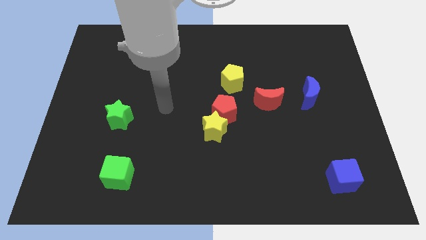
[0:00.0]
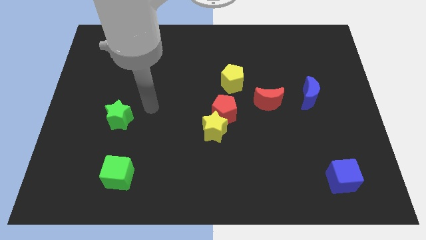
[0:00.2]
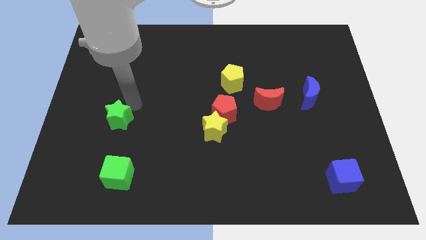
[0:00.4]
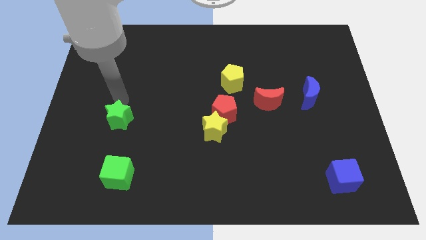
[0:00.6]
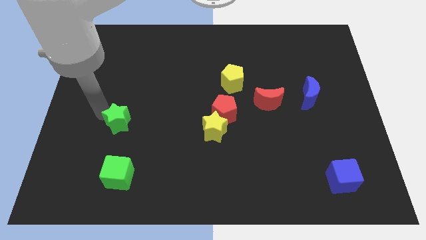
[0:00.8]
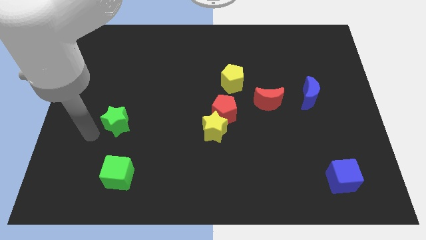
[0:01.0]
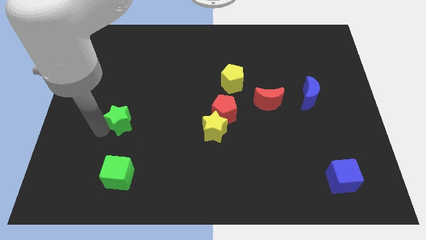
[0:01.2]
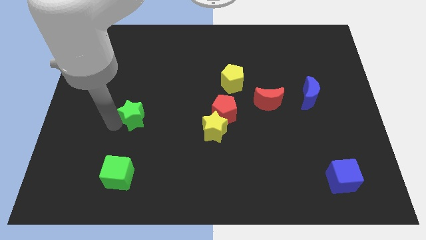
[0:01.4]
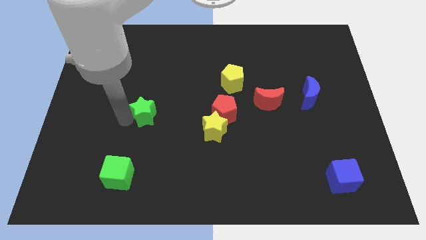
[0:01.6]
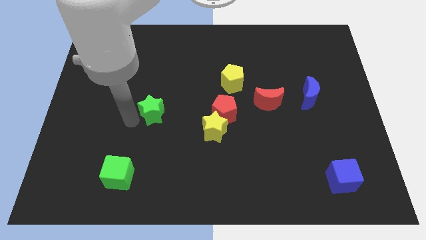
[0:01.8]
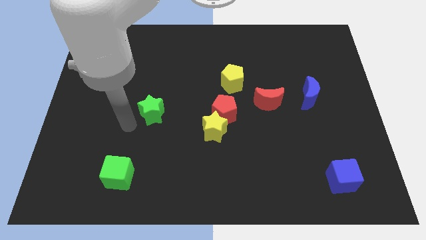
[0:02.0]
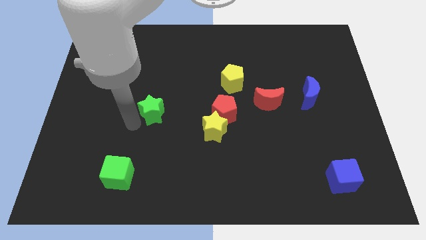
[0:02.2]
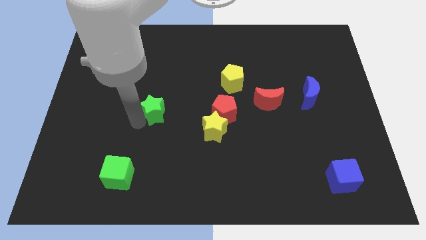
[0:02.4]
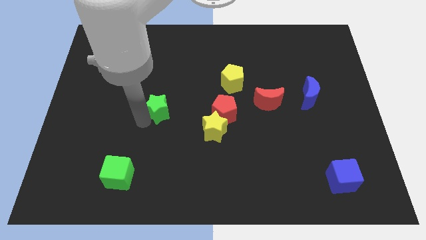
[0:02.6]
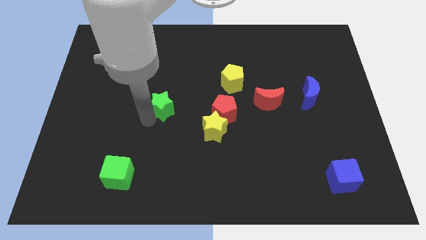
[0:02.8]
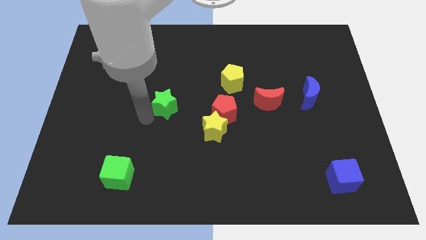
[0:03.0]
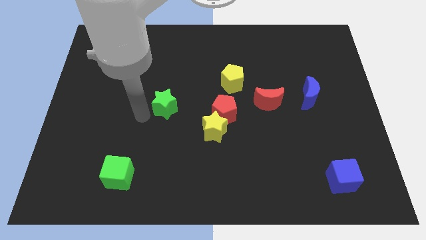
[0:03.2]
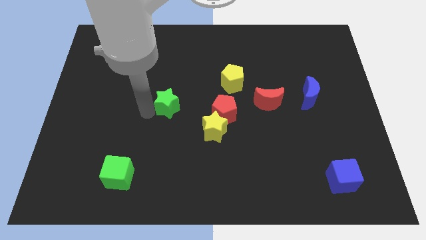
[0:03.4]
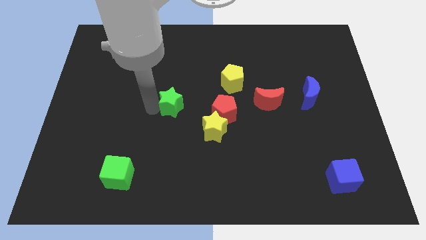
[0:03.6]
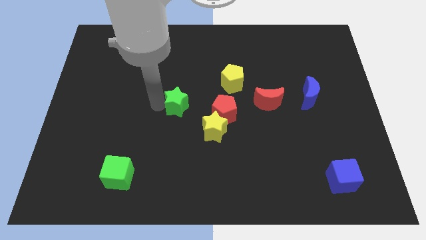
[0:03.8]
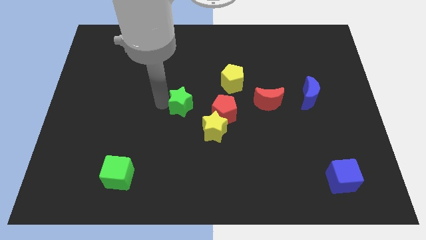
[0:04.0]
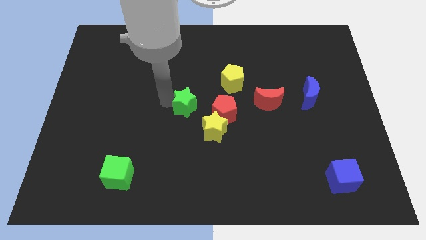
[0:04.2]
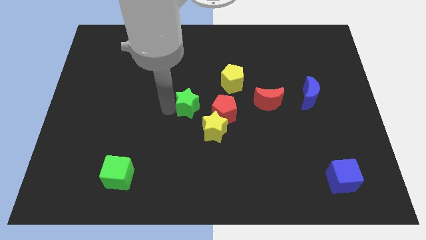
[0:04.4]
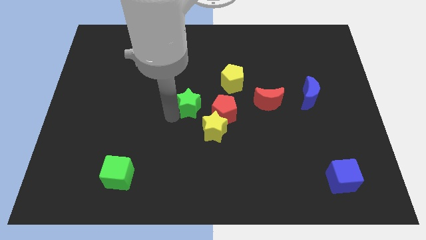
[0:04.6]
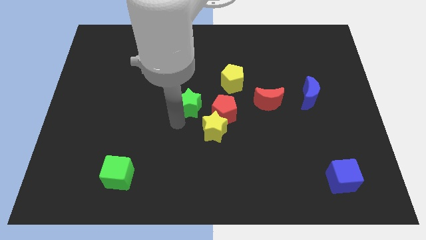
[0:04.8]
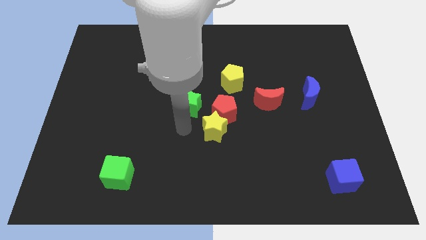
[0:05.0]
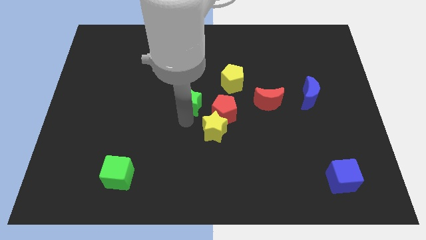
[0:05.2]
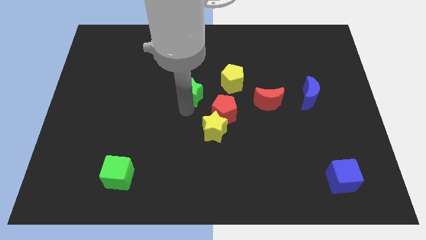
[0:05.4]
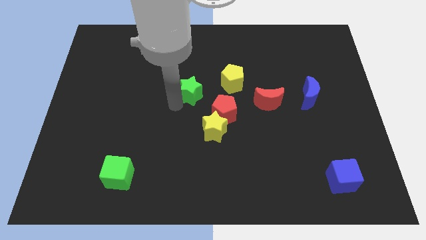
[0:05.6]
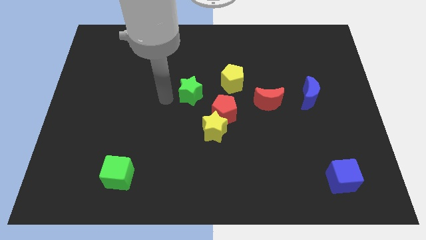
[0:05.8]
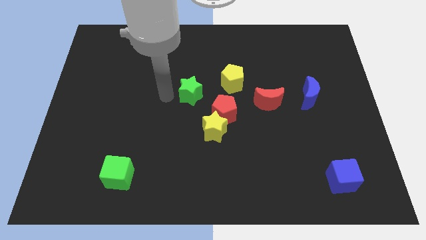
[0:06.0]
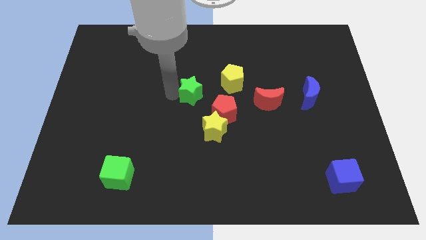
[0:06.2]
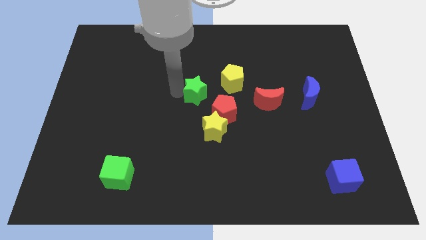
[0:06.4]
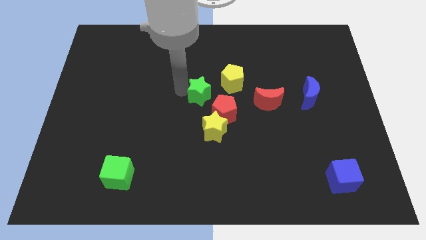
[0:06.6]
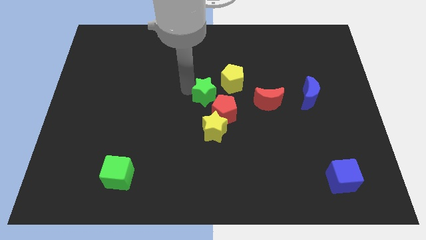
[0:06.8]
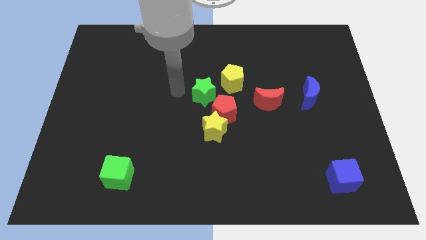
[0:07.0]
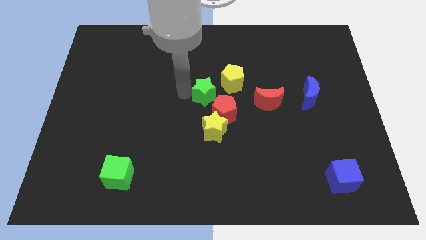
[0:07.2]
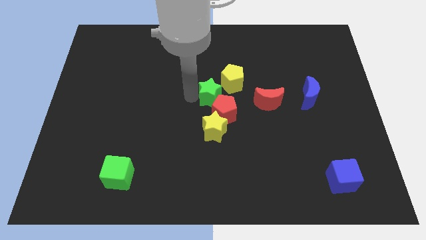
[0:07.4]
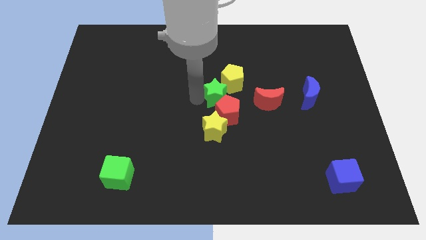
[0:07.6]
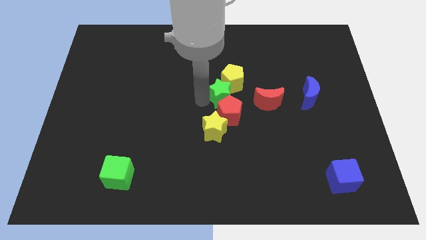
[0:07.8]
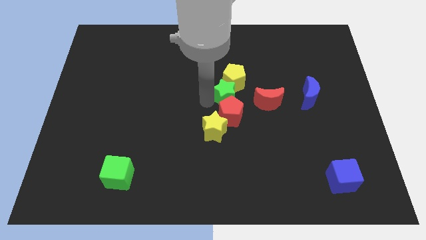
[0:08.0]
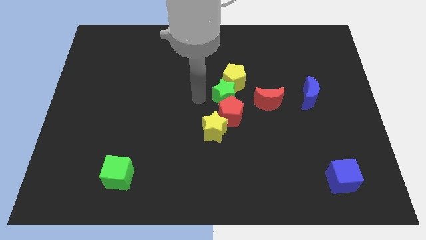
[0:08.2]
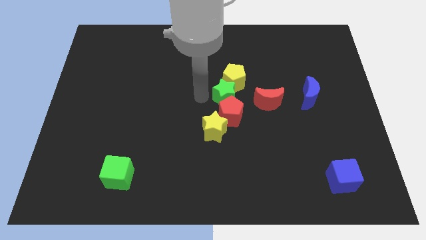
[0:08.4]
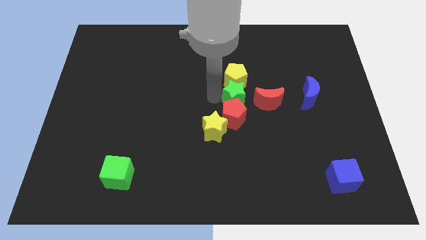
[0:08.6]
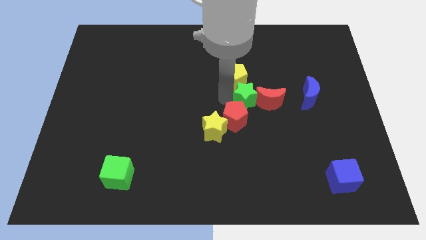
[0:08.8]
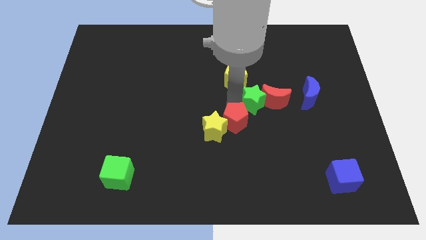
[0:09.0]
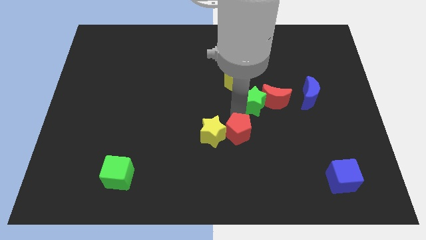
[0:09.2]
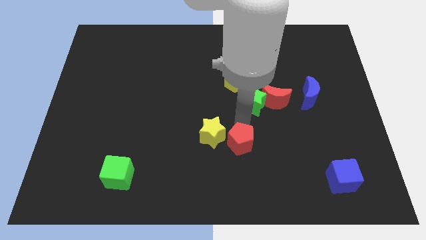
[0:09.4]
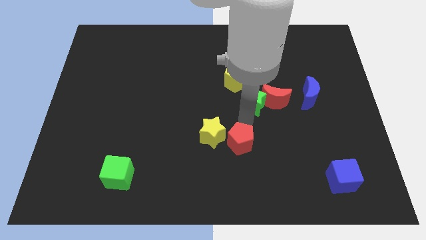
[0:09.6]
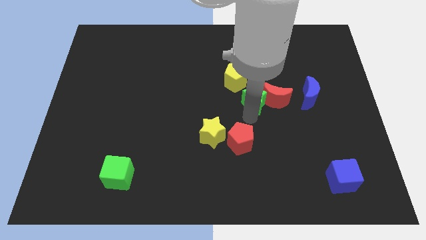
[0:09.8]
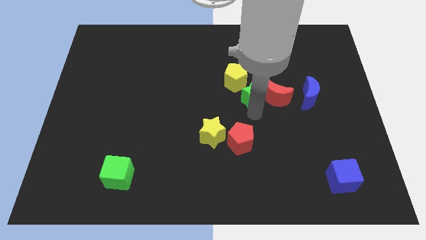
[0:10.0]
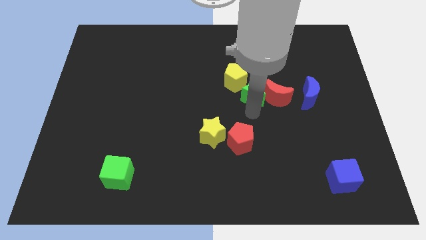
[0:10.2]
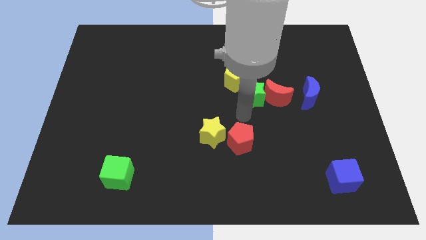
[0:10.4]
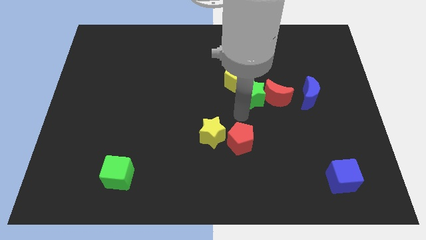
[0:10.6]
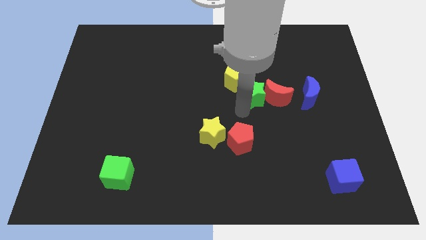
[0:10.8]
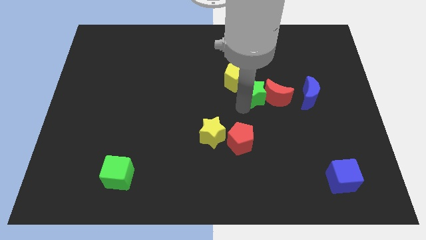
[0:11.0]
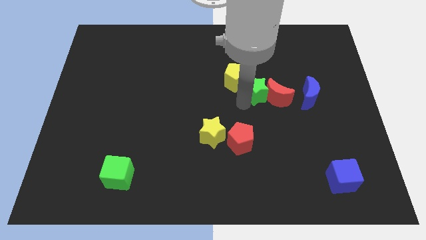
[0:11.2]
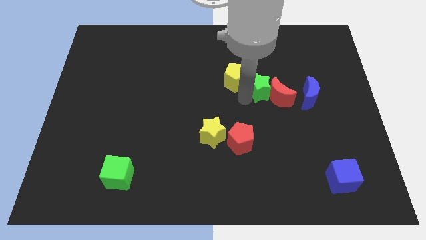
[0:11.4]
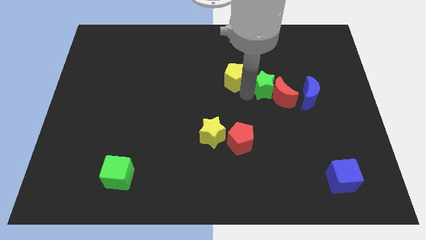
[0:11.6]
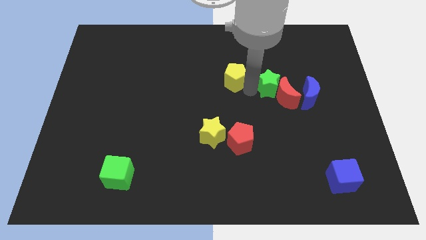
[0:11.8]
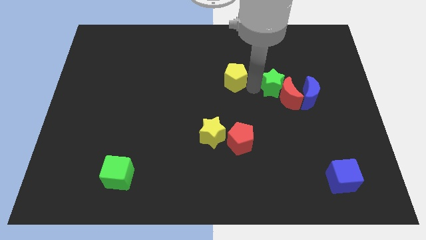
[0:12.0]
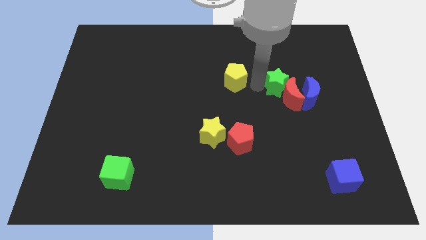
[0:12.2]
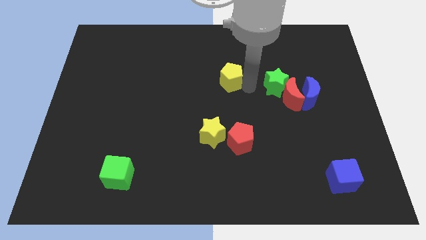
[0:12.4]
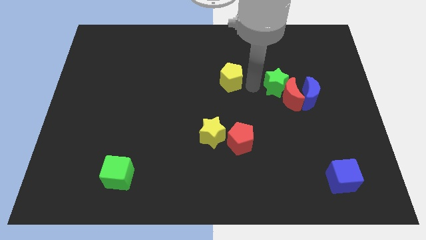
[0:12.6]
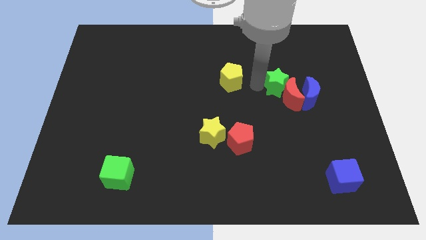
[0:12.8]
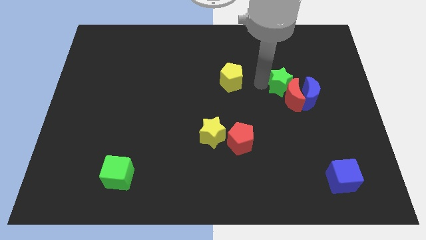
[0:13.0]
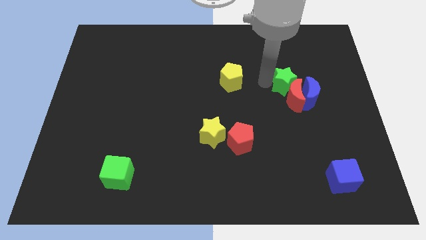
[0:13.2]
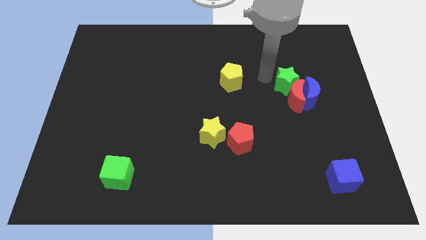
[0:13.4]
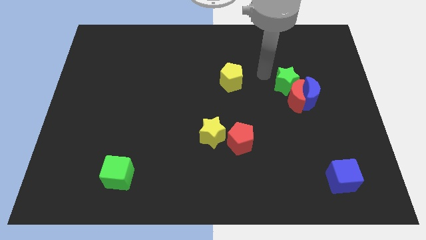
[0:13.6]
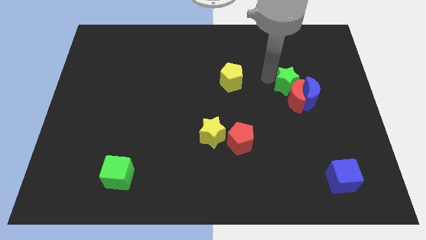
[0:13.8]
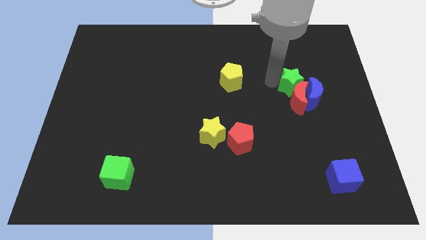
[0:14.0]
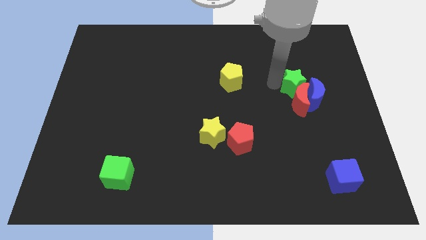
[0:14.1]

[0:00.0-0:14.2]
put the green star towards the blue moon

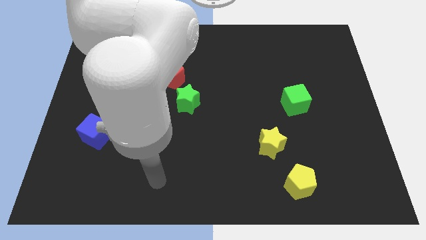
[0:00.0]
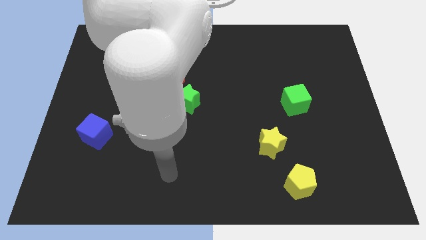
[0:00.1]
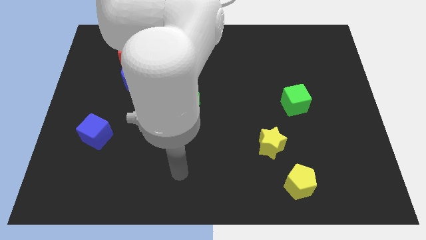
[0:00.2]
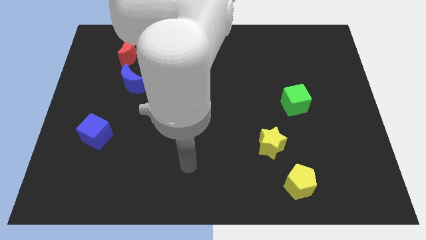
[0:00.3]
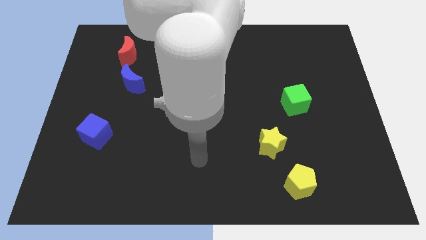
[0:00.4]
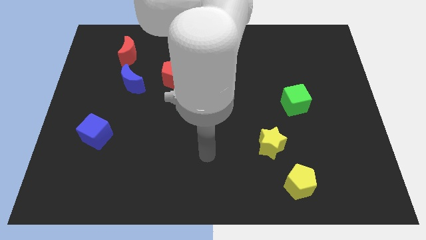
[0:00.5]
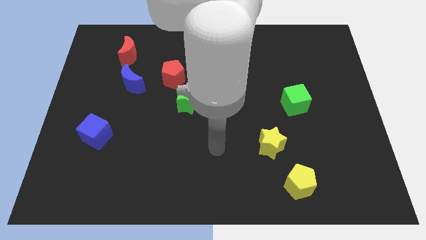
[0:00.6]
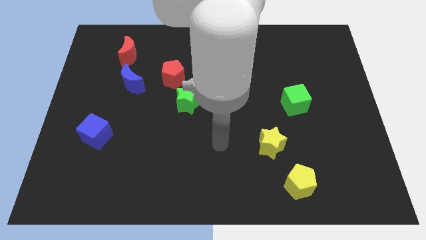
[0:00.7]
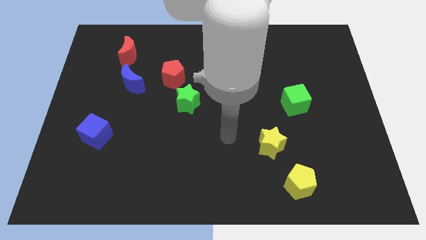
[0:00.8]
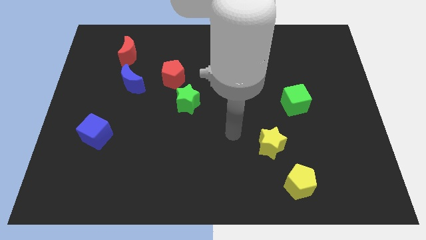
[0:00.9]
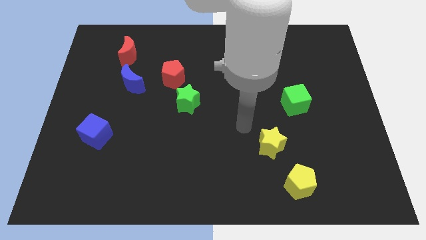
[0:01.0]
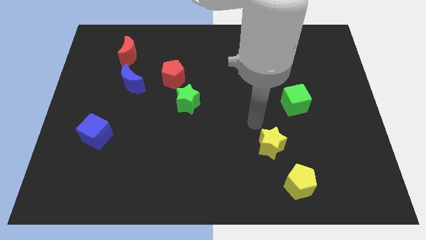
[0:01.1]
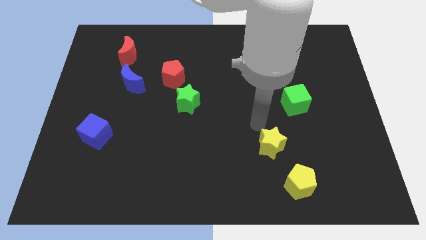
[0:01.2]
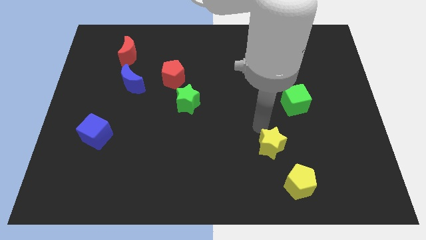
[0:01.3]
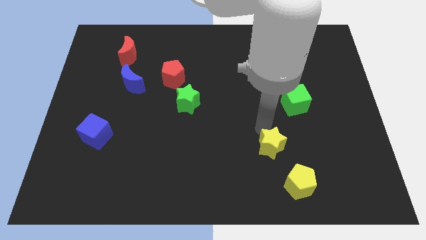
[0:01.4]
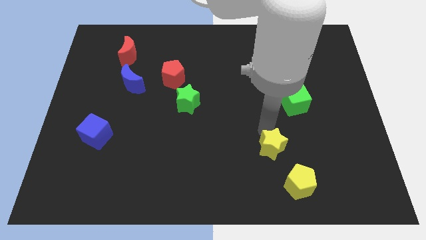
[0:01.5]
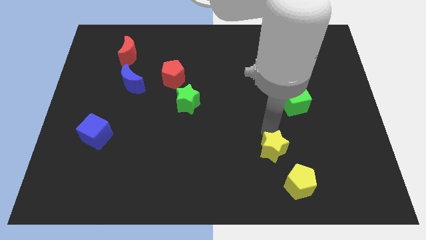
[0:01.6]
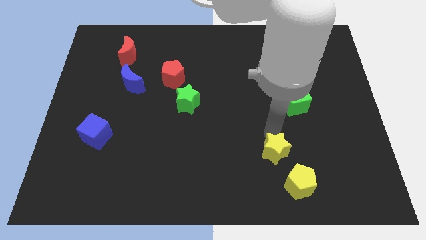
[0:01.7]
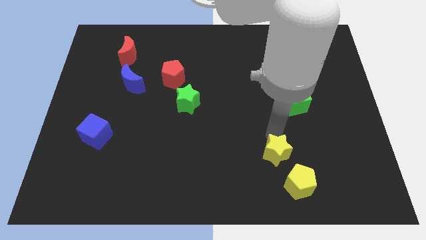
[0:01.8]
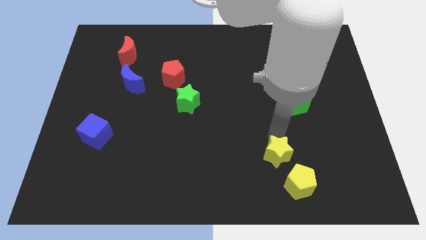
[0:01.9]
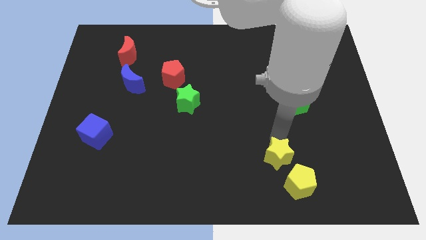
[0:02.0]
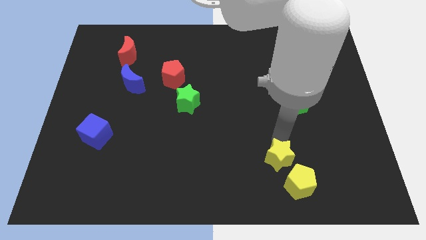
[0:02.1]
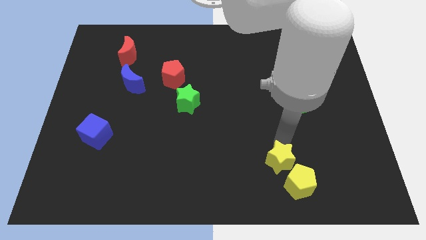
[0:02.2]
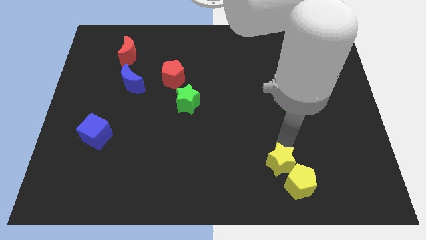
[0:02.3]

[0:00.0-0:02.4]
push the yellow star to the yellow pentagon
